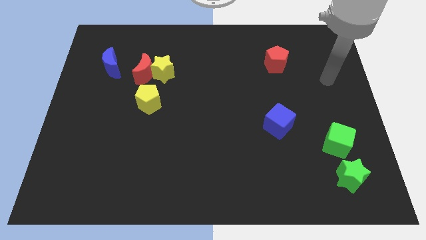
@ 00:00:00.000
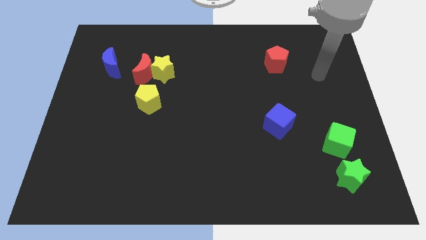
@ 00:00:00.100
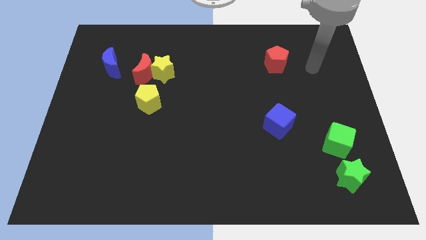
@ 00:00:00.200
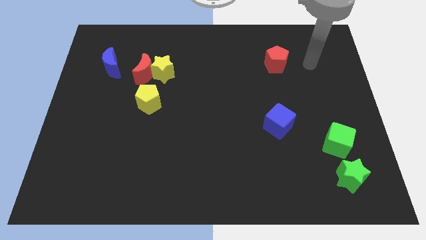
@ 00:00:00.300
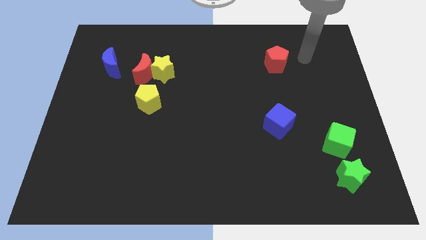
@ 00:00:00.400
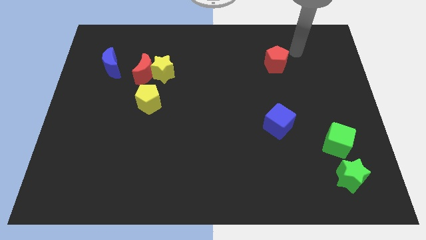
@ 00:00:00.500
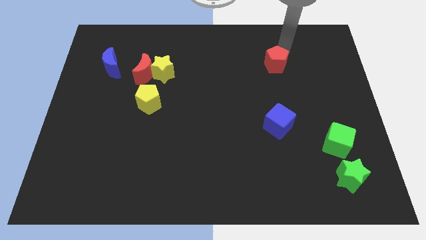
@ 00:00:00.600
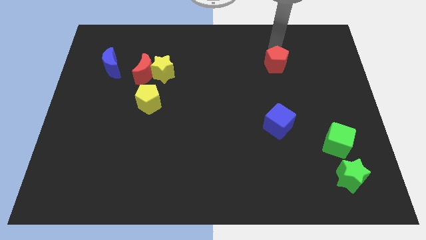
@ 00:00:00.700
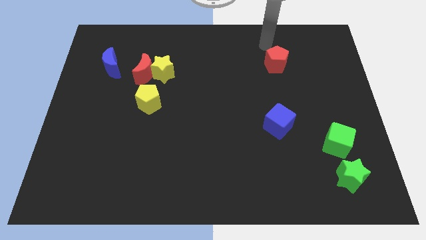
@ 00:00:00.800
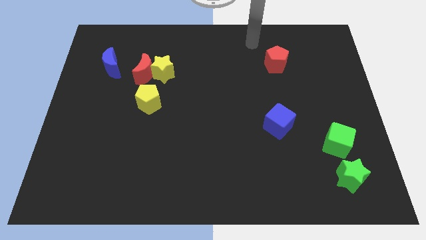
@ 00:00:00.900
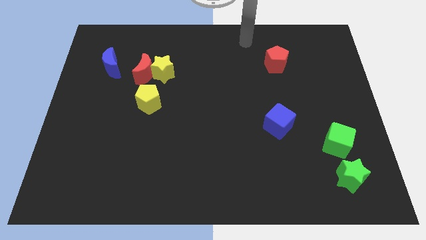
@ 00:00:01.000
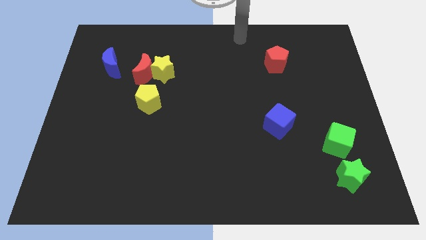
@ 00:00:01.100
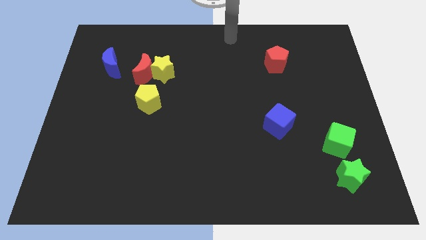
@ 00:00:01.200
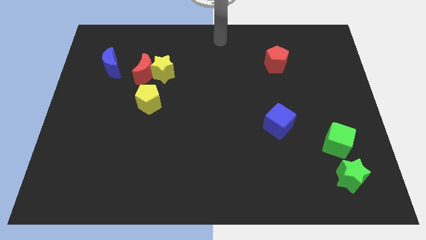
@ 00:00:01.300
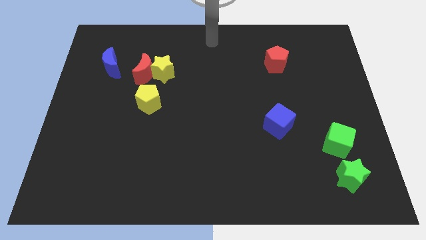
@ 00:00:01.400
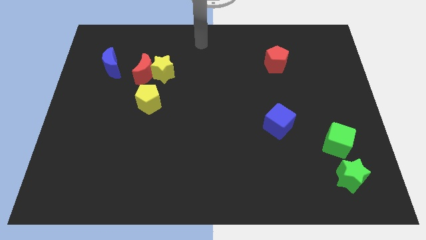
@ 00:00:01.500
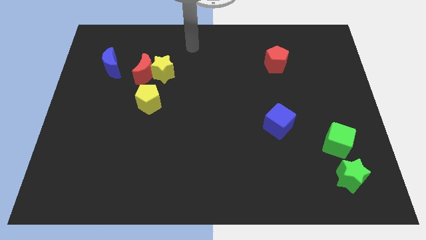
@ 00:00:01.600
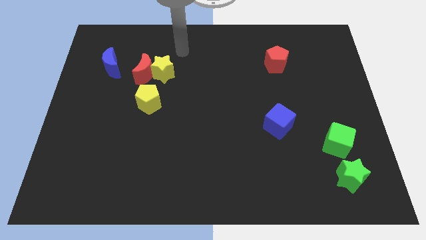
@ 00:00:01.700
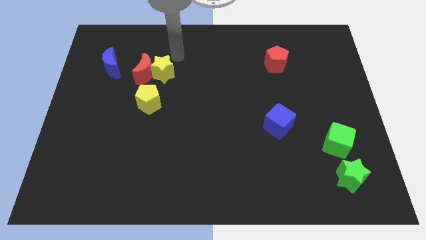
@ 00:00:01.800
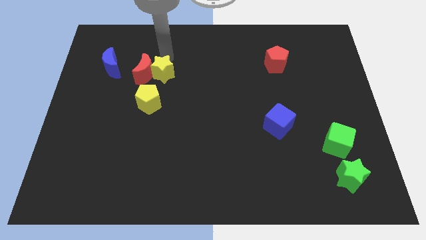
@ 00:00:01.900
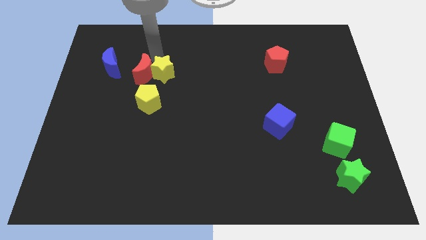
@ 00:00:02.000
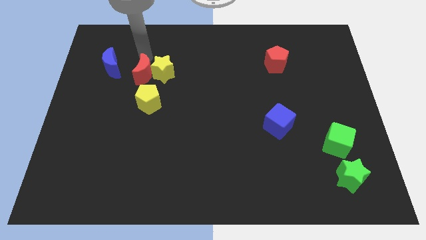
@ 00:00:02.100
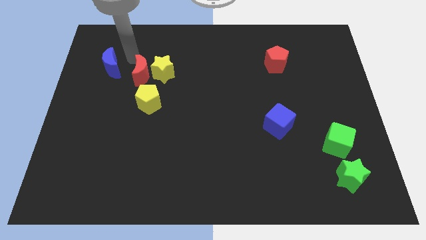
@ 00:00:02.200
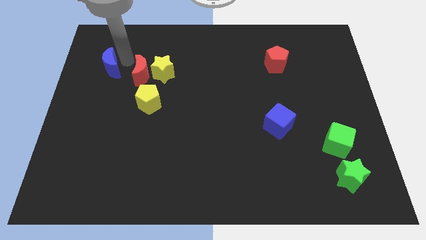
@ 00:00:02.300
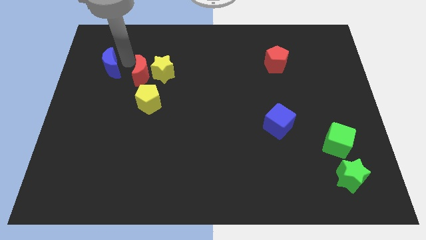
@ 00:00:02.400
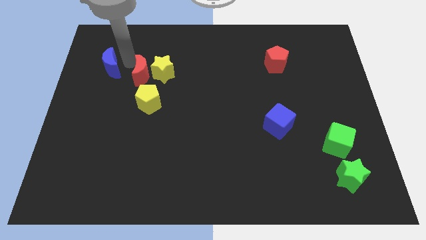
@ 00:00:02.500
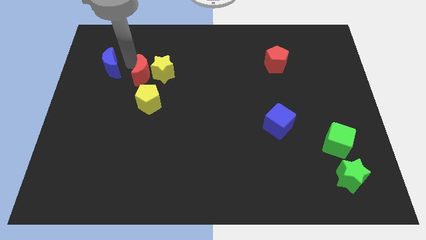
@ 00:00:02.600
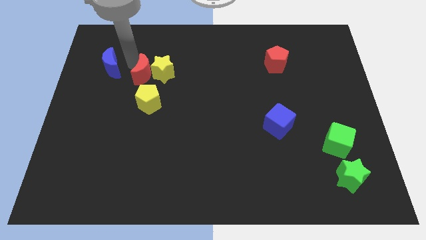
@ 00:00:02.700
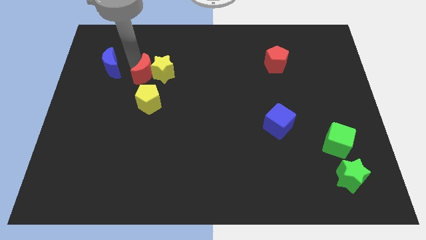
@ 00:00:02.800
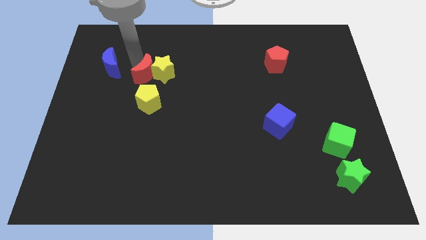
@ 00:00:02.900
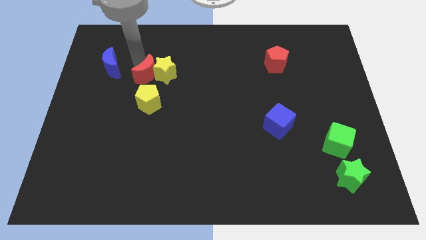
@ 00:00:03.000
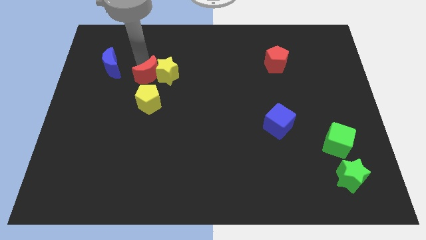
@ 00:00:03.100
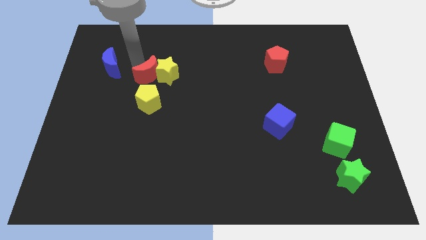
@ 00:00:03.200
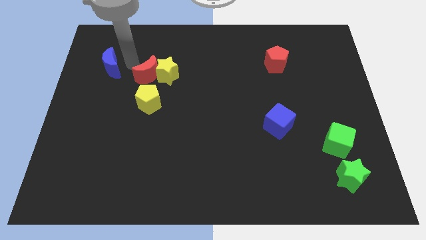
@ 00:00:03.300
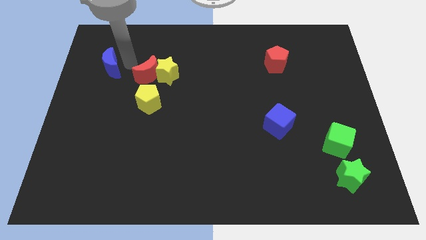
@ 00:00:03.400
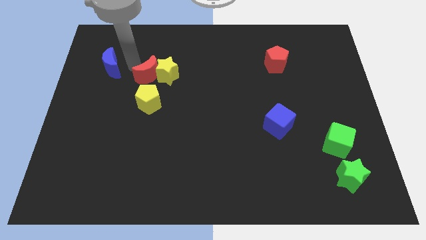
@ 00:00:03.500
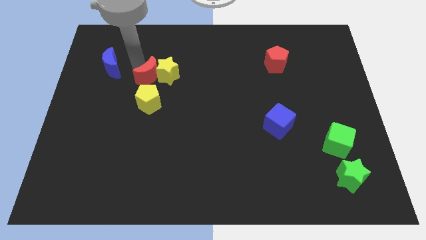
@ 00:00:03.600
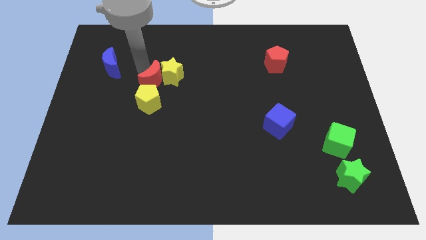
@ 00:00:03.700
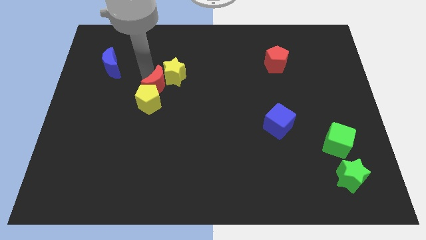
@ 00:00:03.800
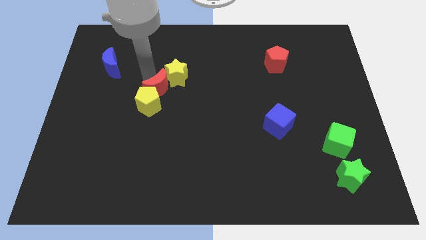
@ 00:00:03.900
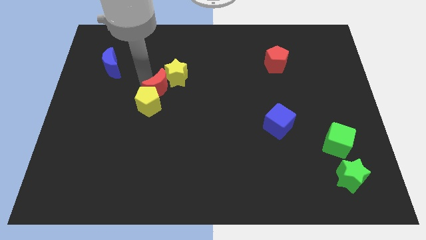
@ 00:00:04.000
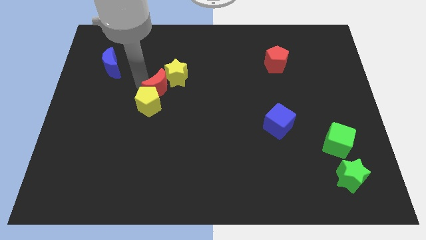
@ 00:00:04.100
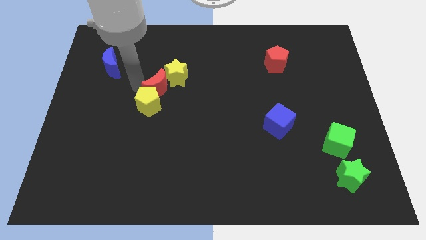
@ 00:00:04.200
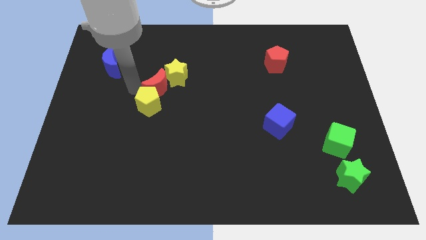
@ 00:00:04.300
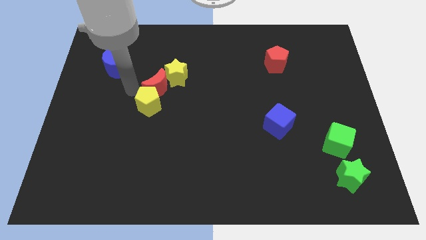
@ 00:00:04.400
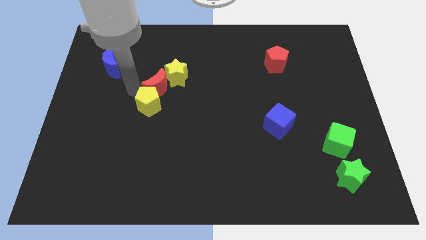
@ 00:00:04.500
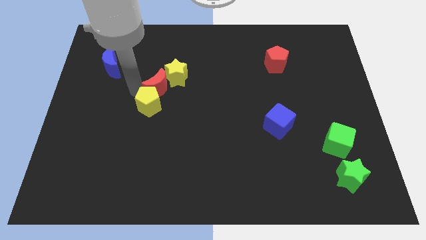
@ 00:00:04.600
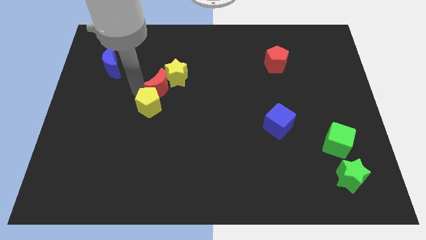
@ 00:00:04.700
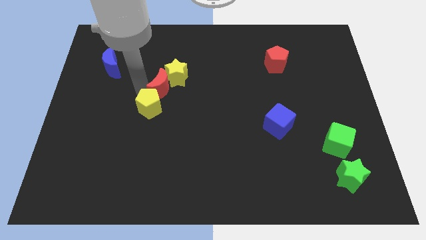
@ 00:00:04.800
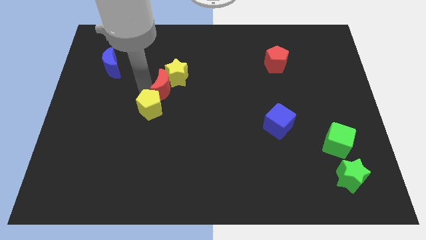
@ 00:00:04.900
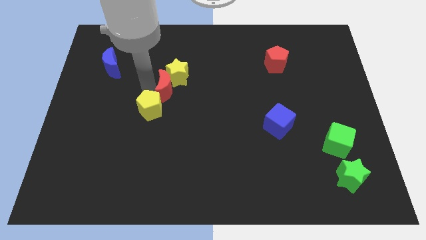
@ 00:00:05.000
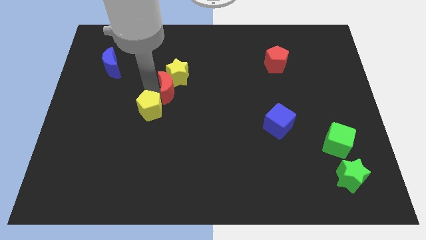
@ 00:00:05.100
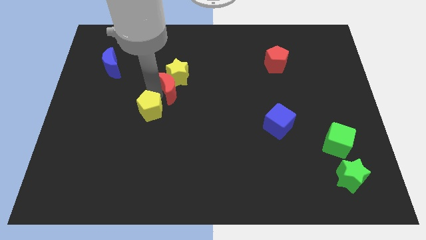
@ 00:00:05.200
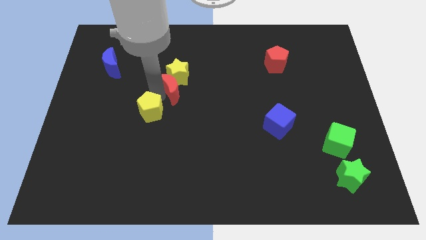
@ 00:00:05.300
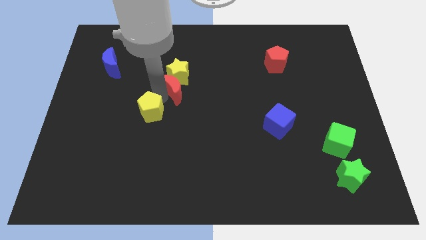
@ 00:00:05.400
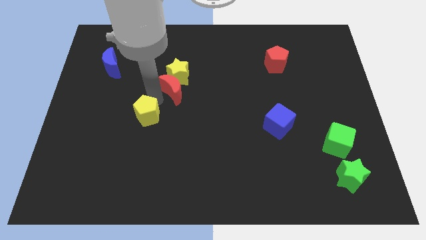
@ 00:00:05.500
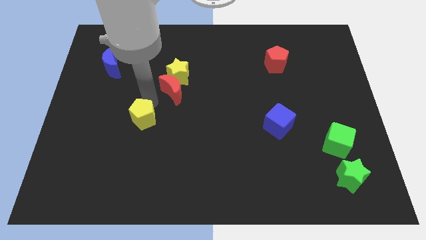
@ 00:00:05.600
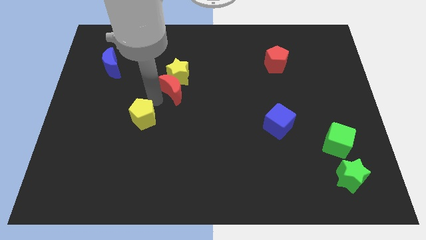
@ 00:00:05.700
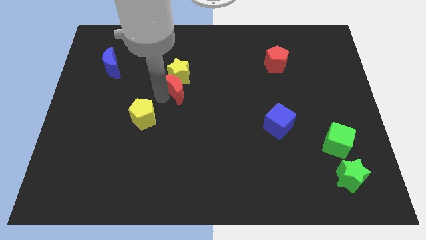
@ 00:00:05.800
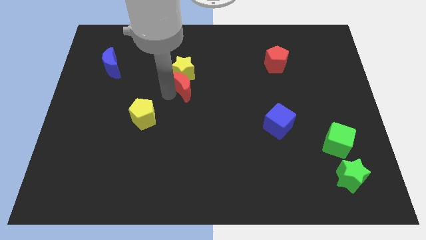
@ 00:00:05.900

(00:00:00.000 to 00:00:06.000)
move the red moon somewhat to the right

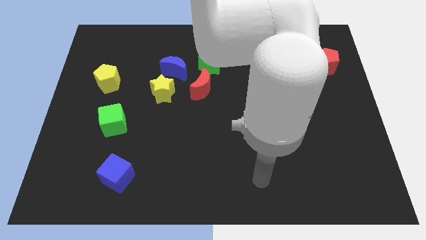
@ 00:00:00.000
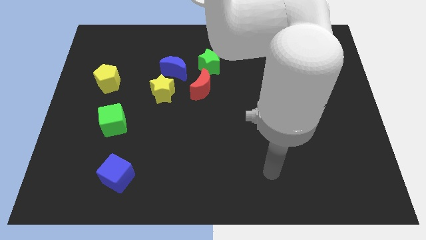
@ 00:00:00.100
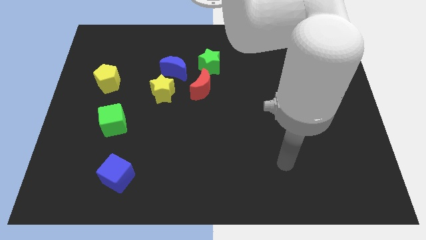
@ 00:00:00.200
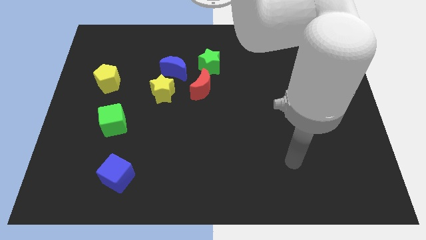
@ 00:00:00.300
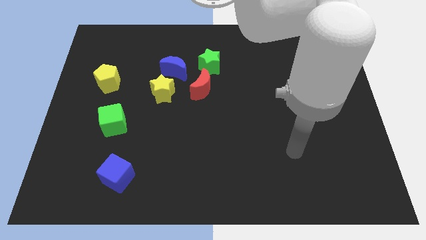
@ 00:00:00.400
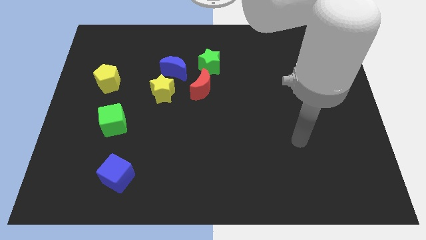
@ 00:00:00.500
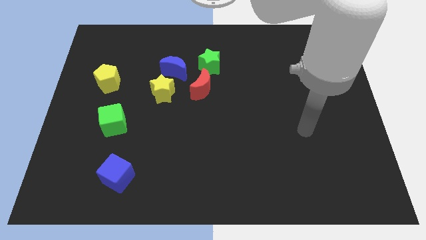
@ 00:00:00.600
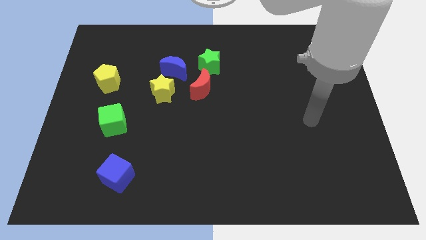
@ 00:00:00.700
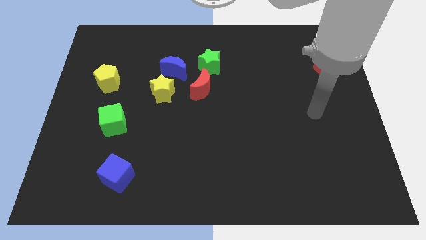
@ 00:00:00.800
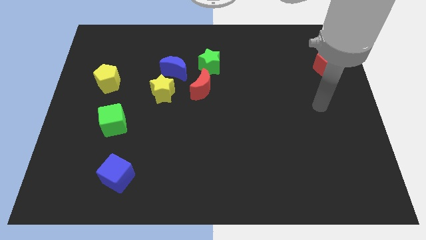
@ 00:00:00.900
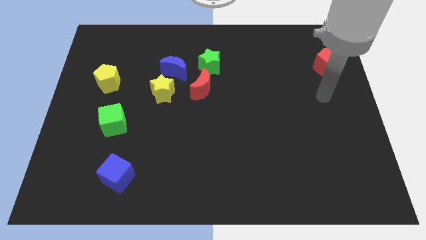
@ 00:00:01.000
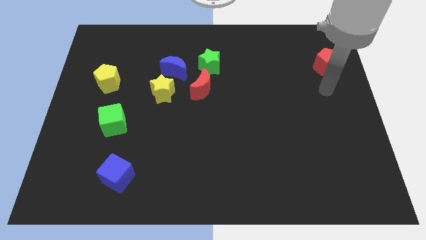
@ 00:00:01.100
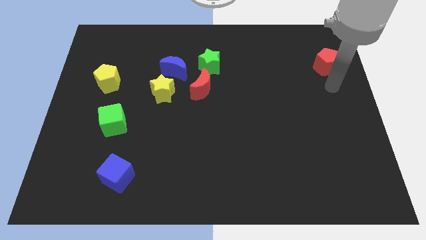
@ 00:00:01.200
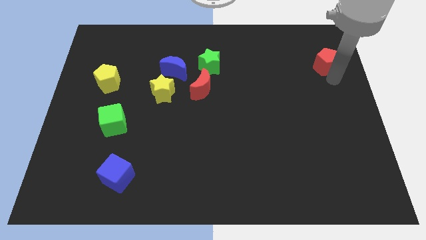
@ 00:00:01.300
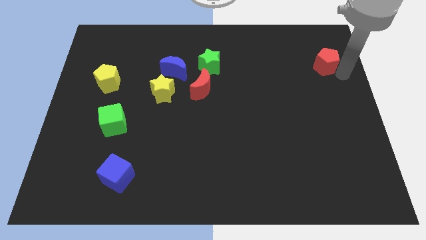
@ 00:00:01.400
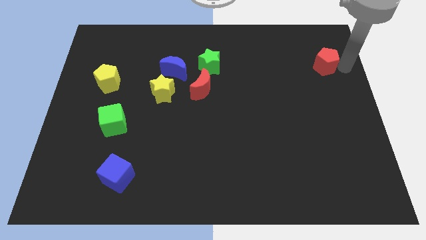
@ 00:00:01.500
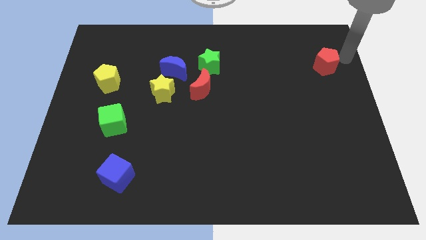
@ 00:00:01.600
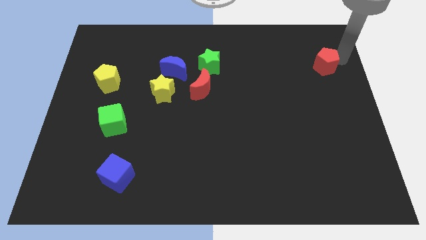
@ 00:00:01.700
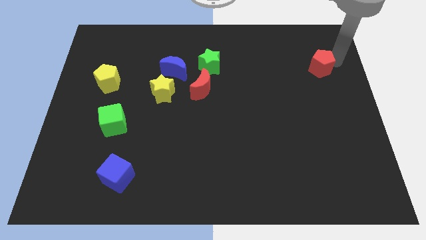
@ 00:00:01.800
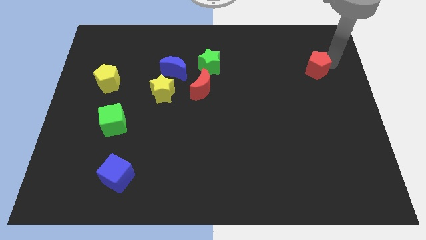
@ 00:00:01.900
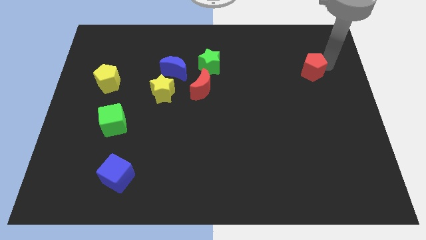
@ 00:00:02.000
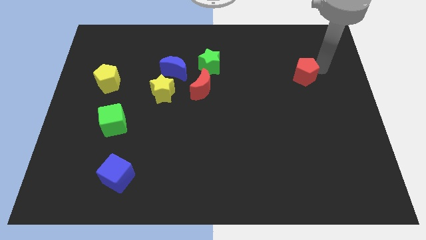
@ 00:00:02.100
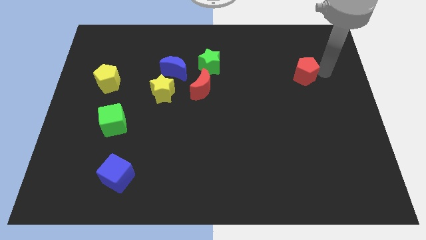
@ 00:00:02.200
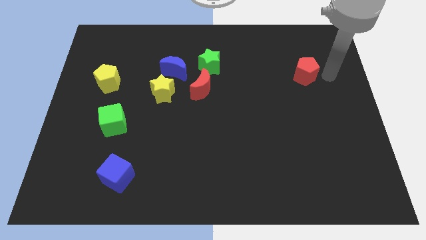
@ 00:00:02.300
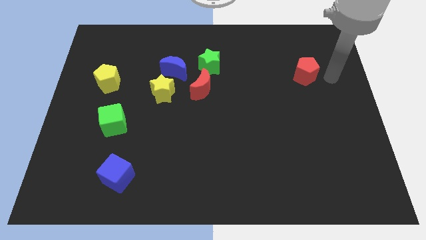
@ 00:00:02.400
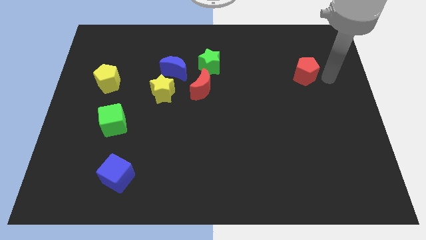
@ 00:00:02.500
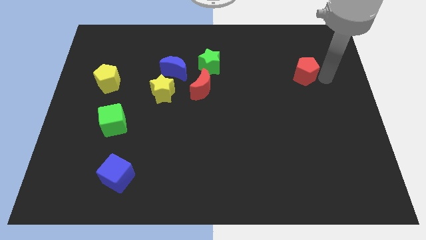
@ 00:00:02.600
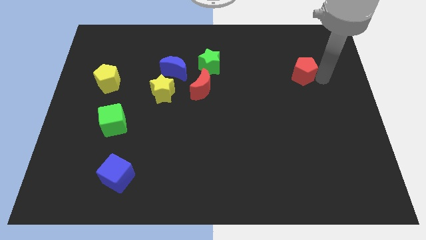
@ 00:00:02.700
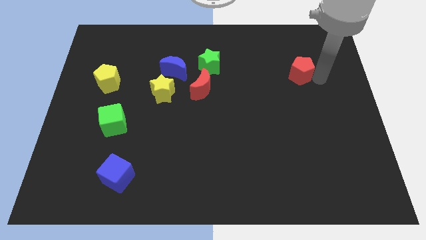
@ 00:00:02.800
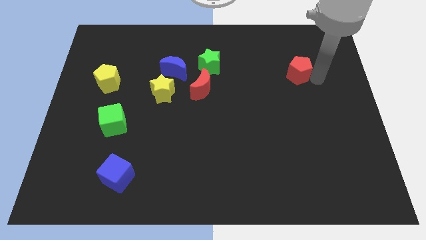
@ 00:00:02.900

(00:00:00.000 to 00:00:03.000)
move the red pentagon to the left a little bit
